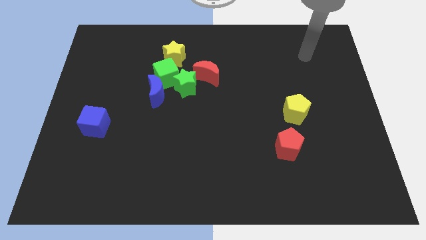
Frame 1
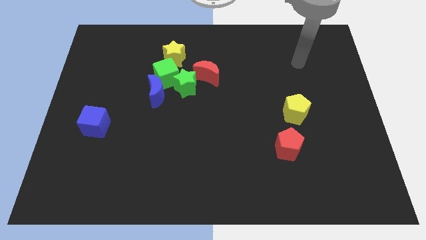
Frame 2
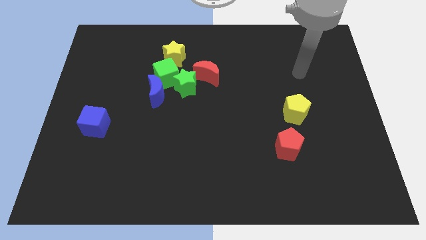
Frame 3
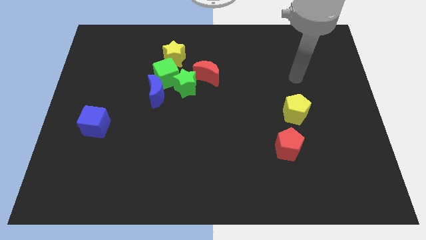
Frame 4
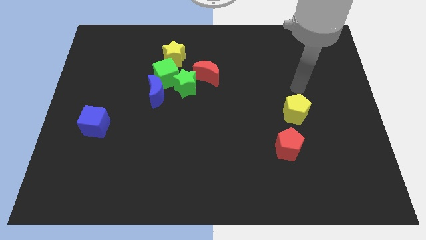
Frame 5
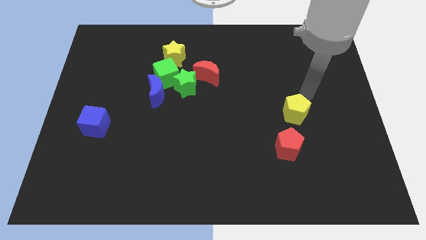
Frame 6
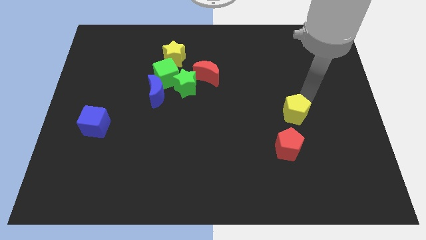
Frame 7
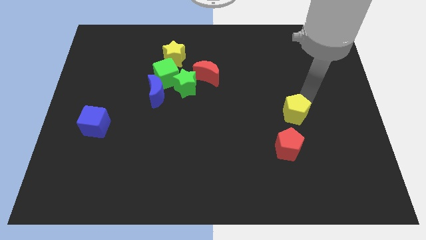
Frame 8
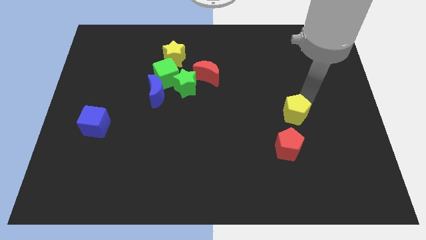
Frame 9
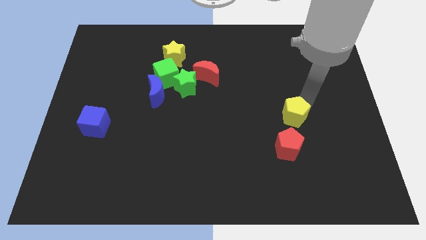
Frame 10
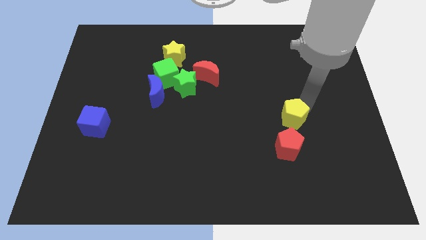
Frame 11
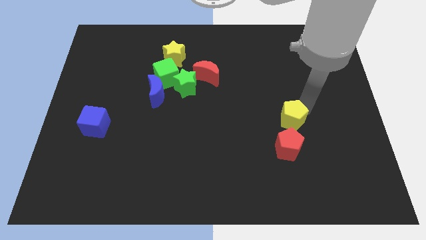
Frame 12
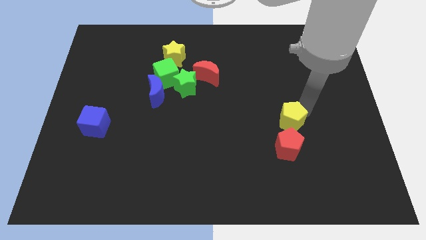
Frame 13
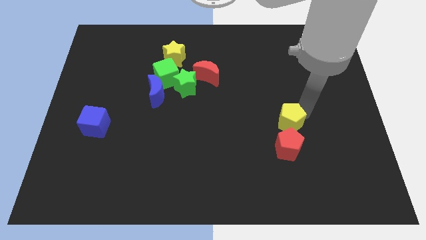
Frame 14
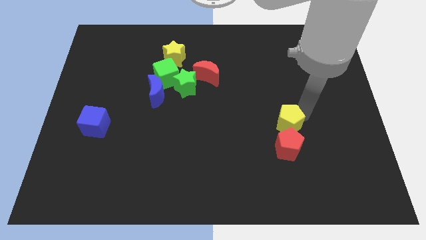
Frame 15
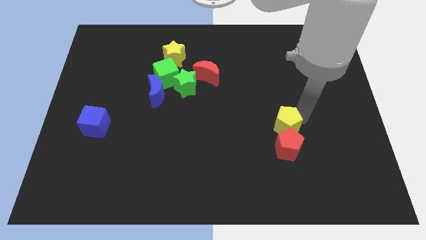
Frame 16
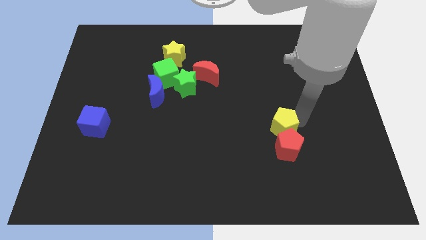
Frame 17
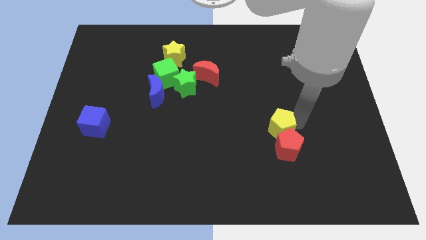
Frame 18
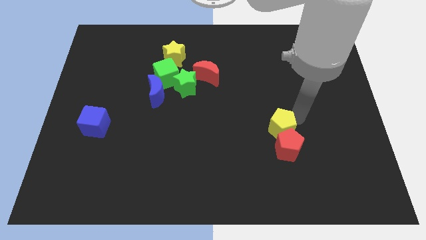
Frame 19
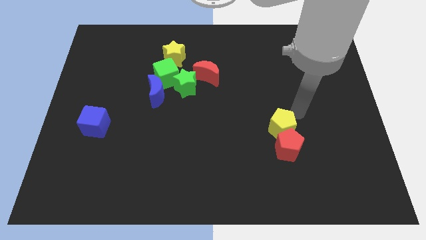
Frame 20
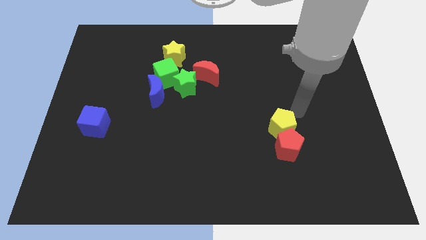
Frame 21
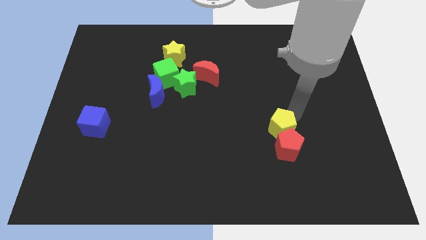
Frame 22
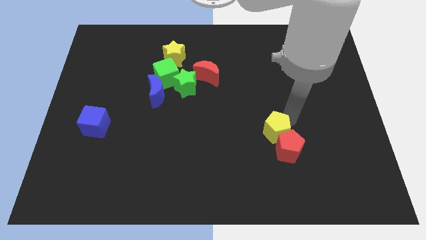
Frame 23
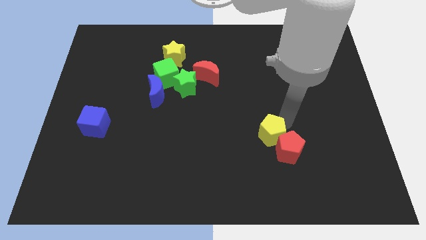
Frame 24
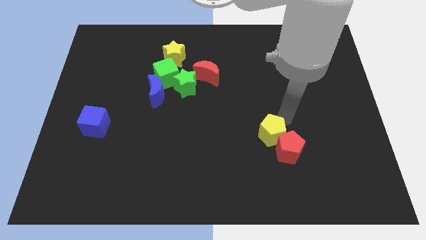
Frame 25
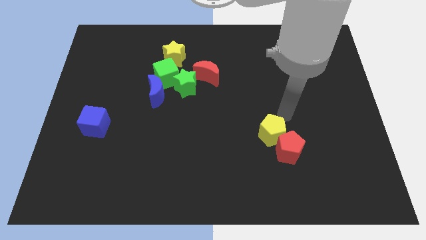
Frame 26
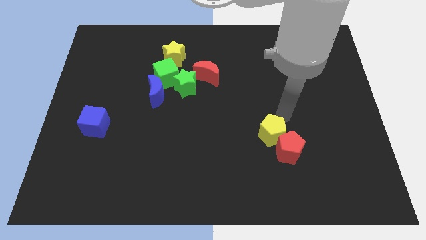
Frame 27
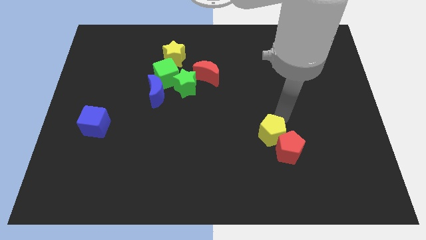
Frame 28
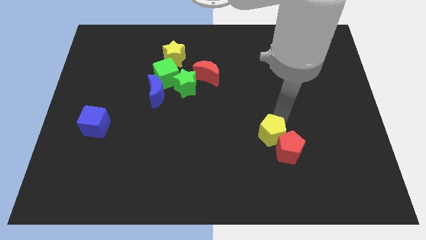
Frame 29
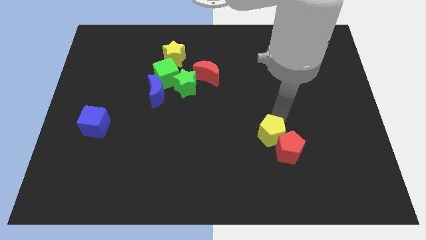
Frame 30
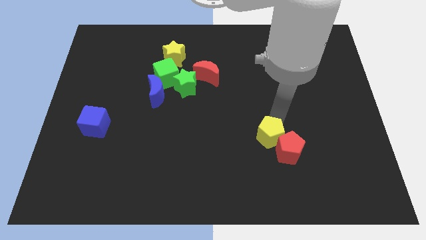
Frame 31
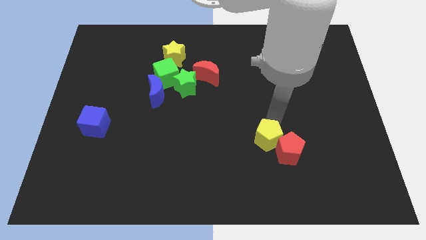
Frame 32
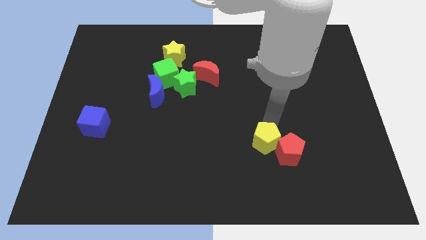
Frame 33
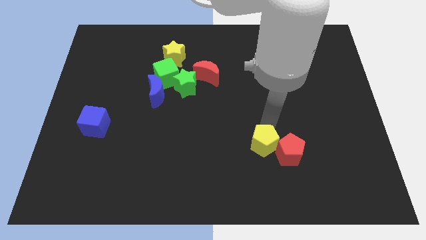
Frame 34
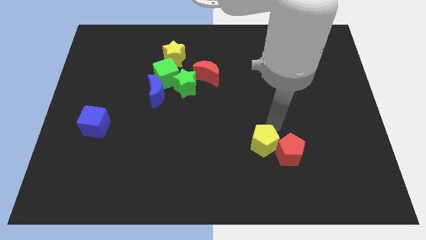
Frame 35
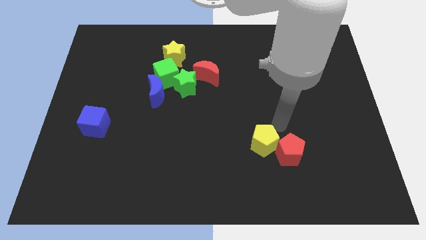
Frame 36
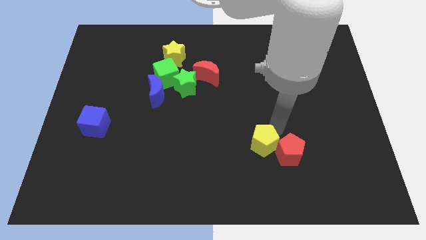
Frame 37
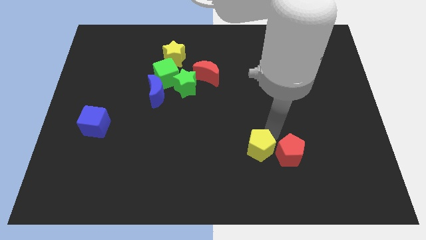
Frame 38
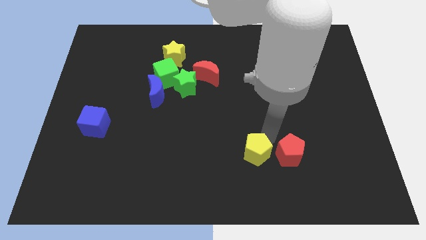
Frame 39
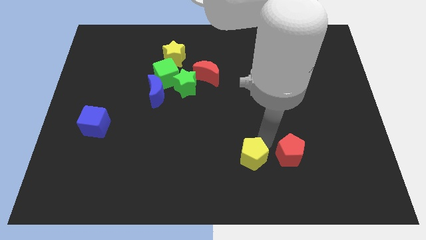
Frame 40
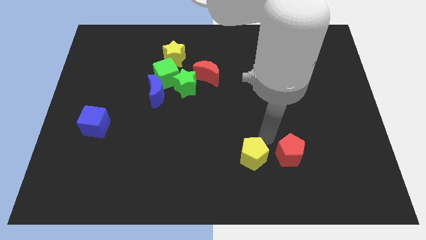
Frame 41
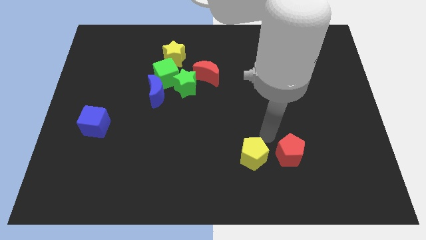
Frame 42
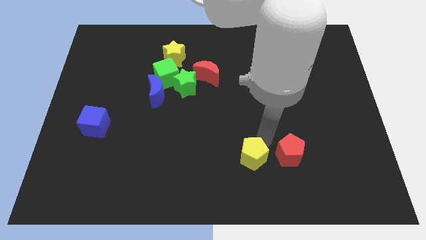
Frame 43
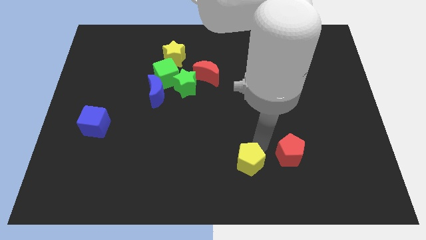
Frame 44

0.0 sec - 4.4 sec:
put the yellow pentagon to the bottom side

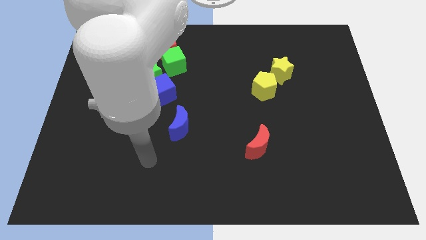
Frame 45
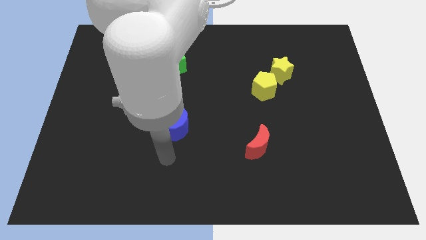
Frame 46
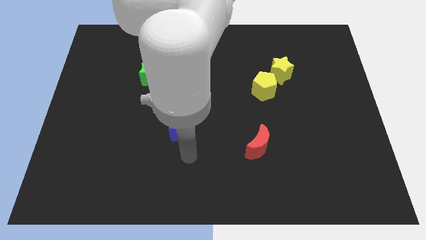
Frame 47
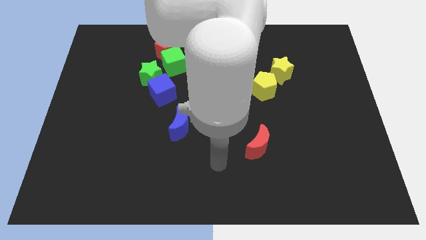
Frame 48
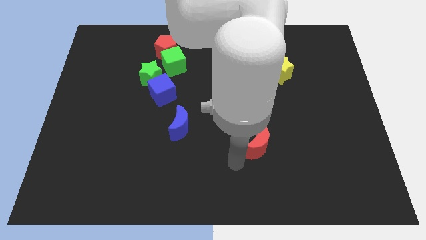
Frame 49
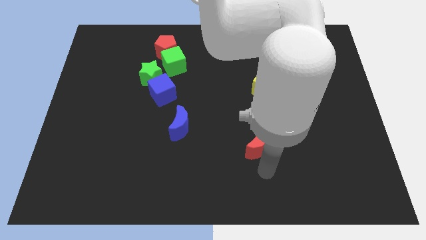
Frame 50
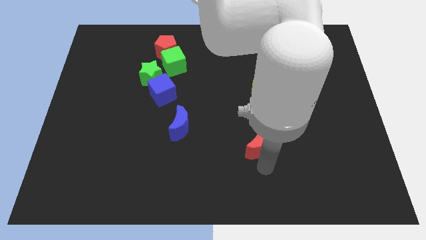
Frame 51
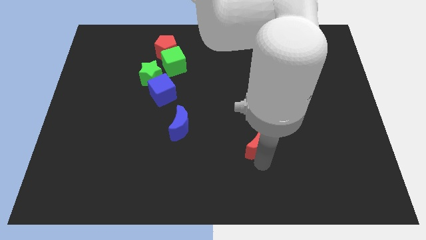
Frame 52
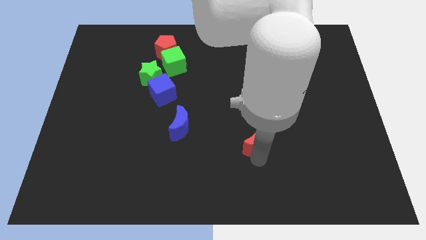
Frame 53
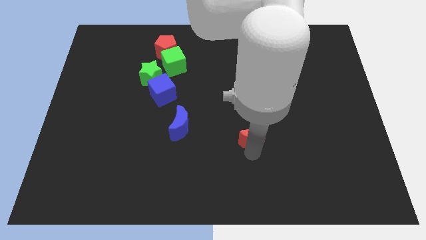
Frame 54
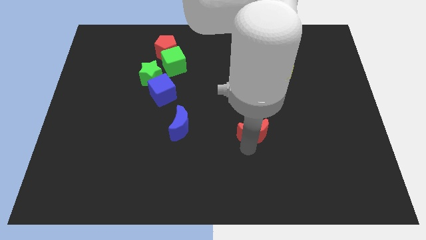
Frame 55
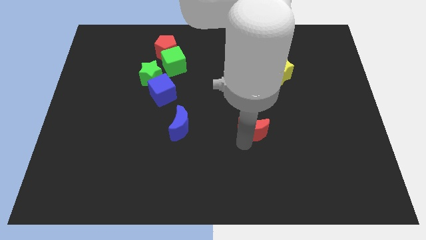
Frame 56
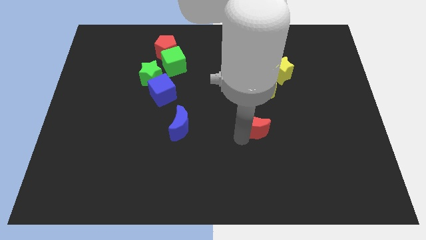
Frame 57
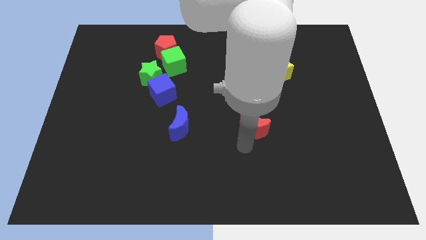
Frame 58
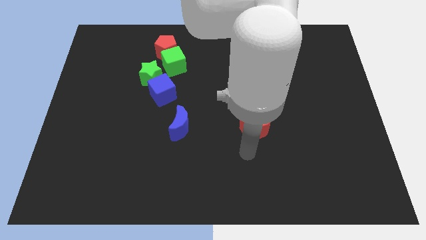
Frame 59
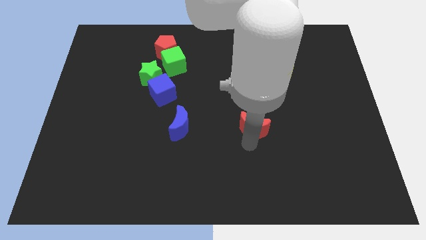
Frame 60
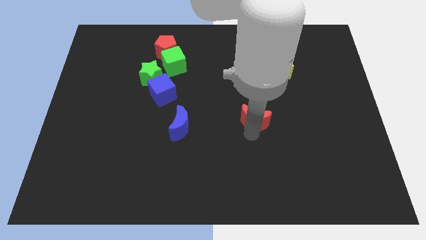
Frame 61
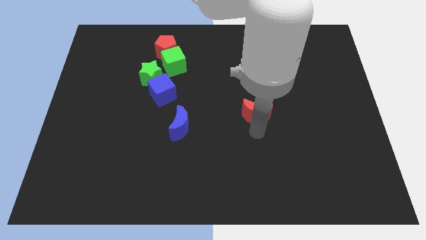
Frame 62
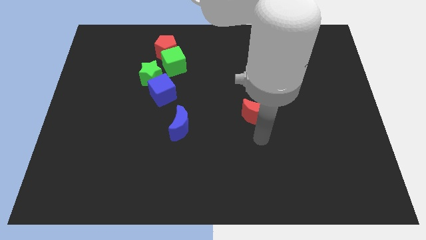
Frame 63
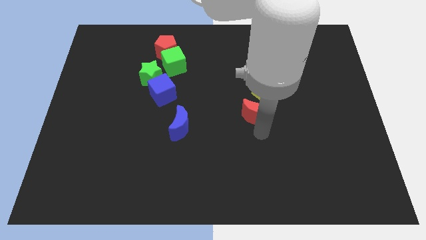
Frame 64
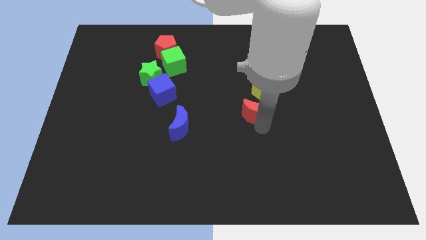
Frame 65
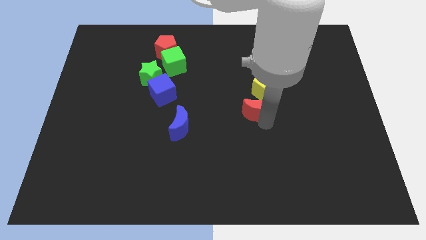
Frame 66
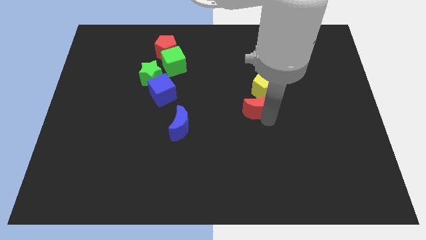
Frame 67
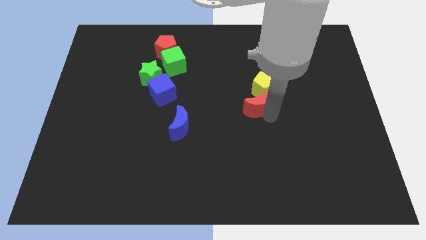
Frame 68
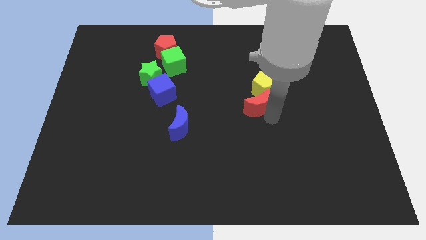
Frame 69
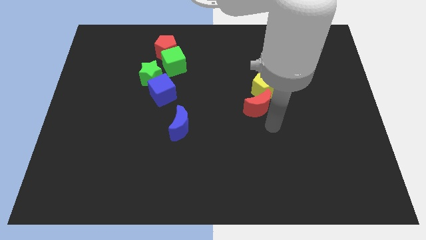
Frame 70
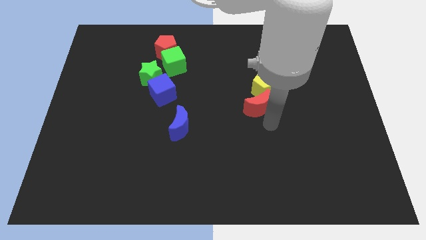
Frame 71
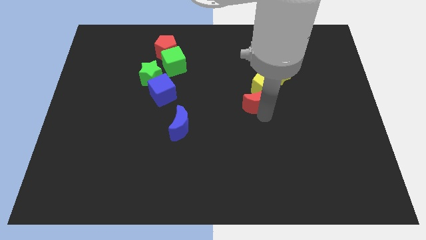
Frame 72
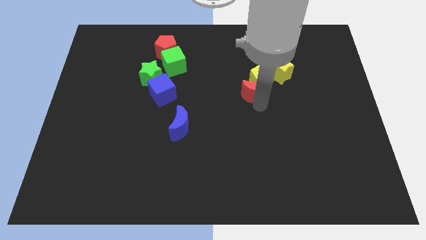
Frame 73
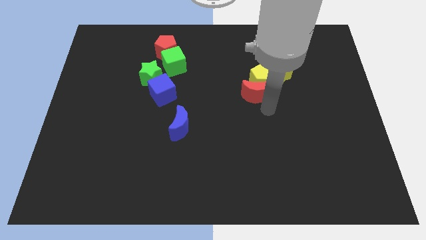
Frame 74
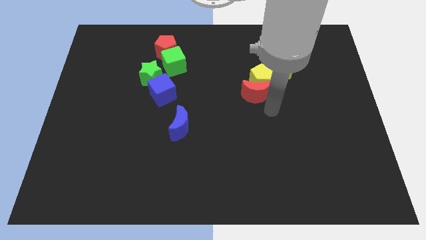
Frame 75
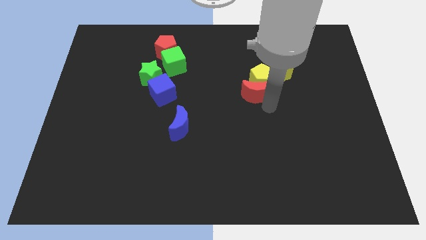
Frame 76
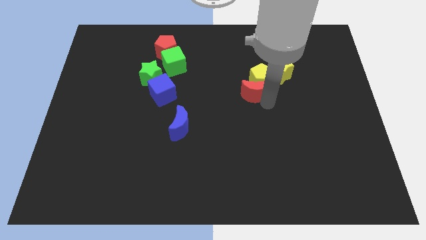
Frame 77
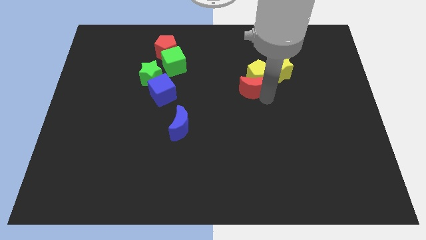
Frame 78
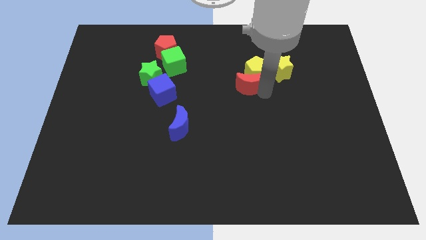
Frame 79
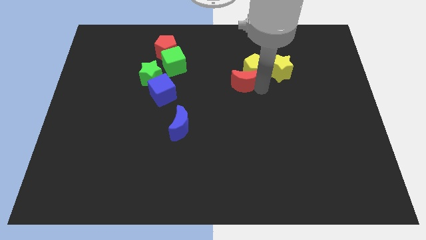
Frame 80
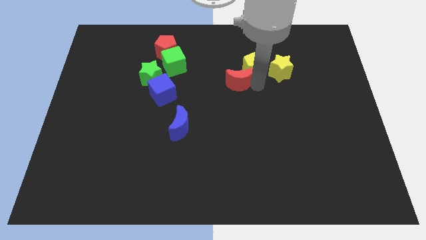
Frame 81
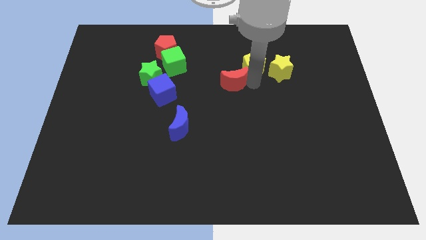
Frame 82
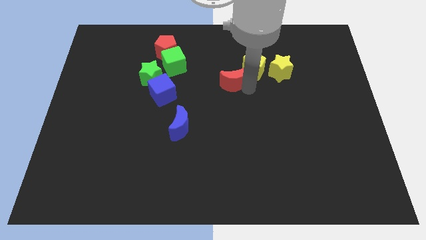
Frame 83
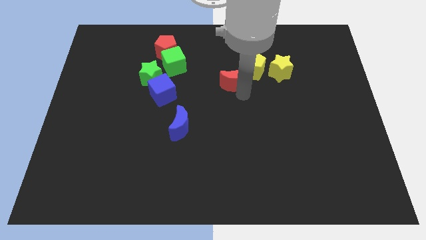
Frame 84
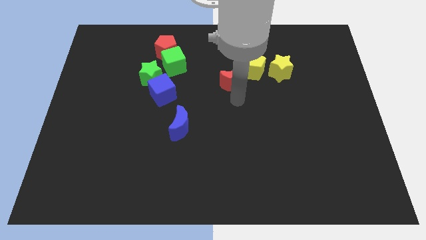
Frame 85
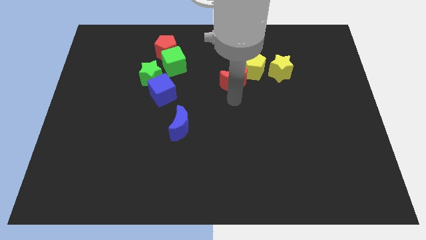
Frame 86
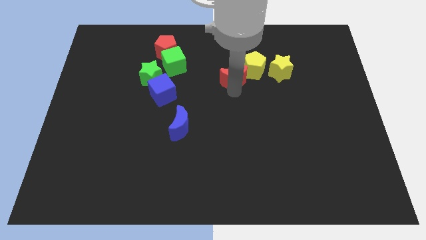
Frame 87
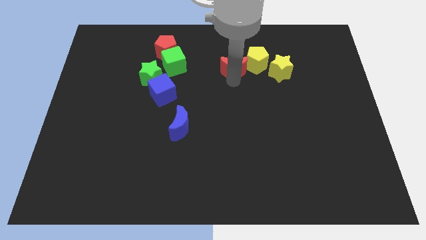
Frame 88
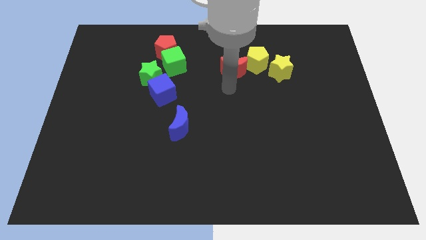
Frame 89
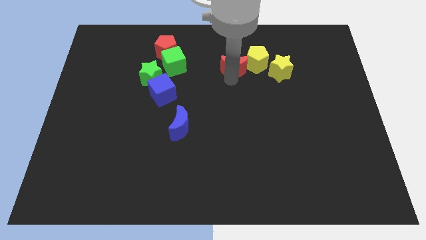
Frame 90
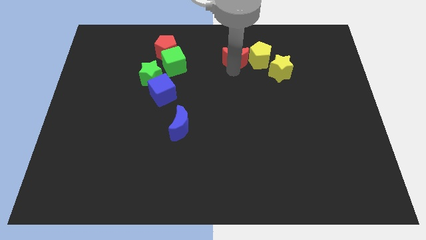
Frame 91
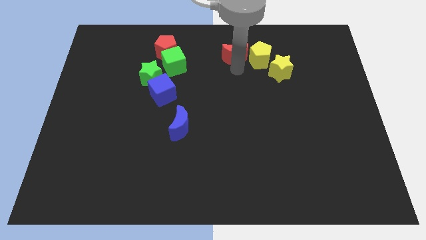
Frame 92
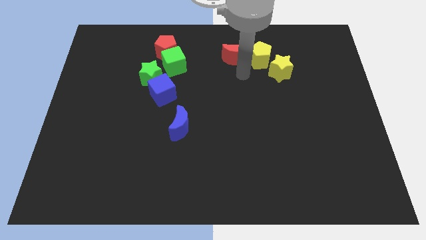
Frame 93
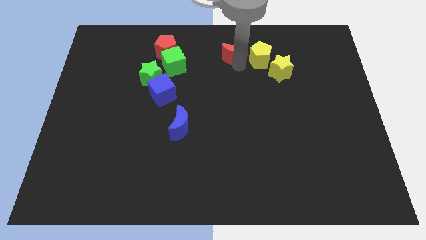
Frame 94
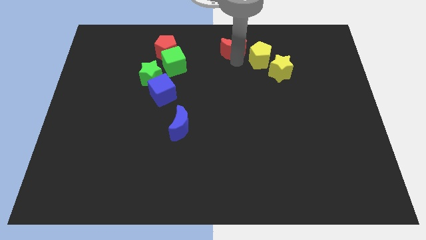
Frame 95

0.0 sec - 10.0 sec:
push the red moon to the top side
